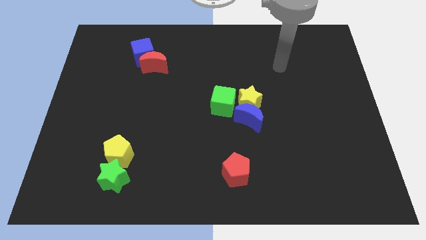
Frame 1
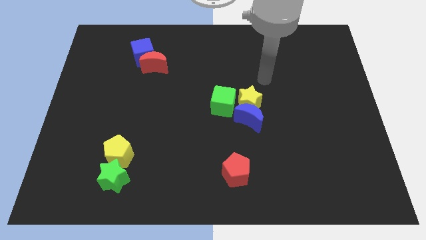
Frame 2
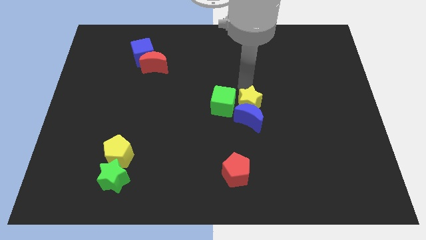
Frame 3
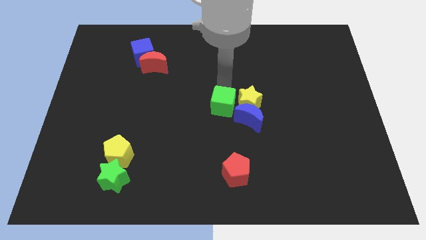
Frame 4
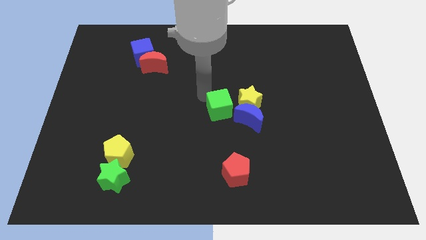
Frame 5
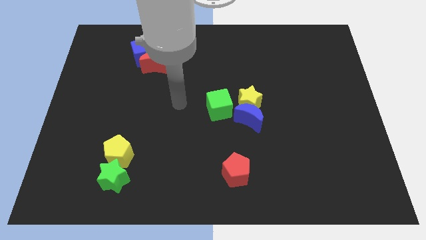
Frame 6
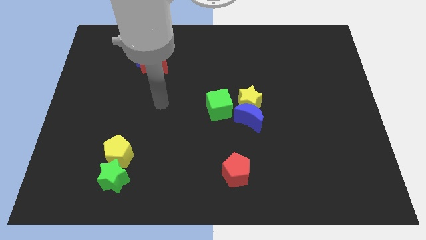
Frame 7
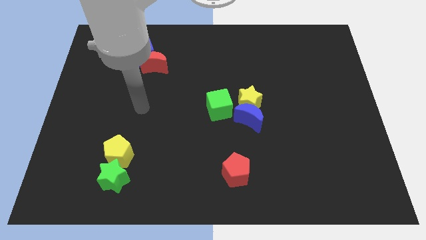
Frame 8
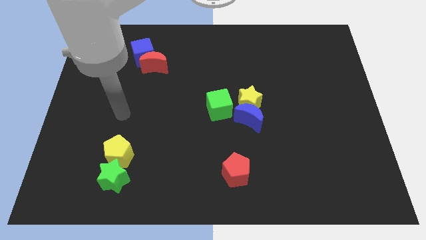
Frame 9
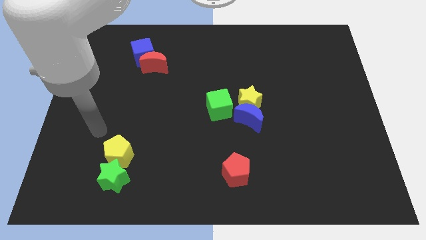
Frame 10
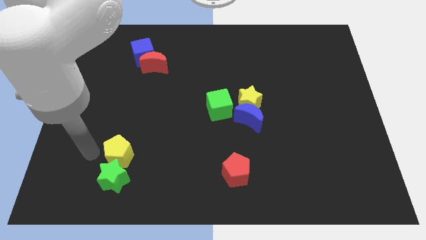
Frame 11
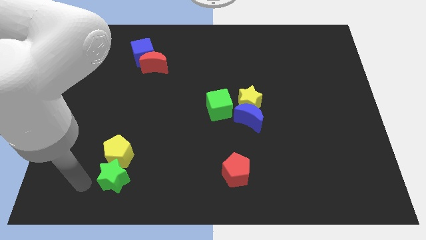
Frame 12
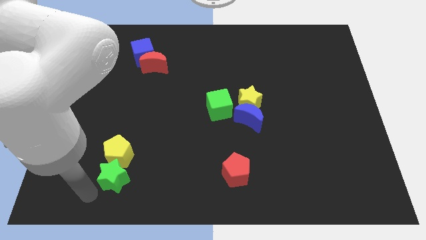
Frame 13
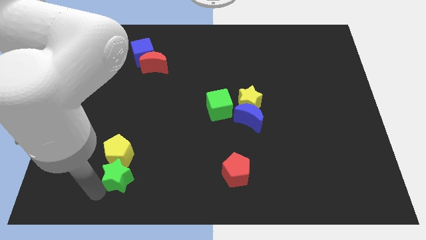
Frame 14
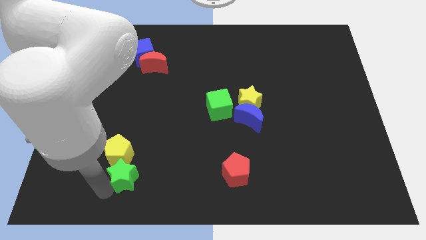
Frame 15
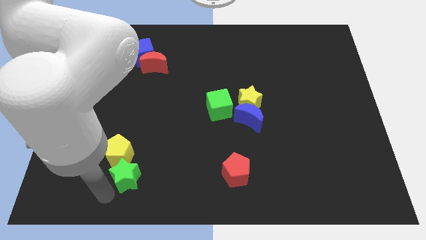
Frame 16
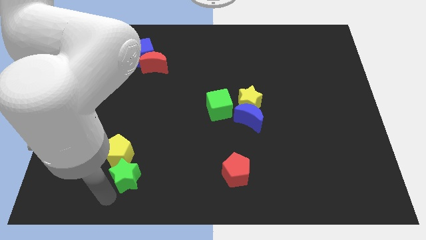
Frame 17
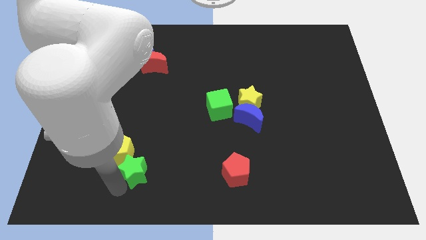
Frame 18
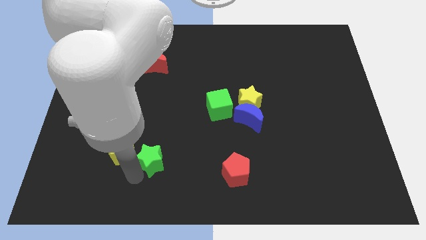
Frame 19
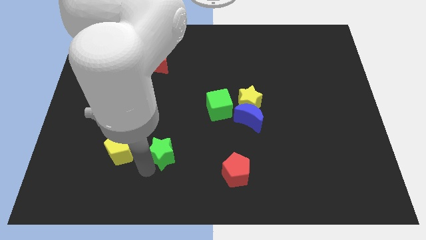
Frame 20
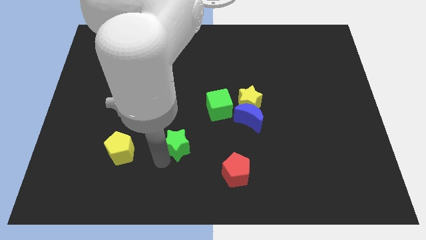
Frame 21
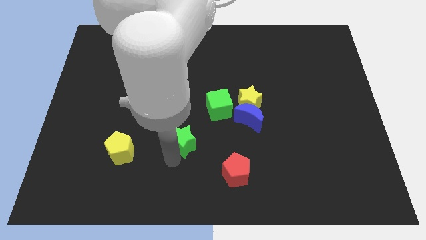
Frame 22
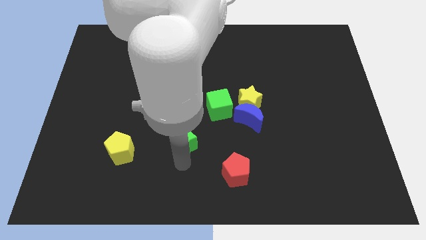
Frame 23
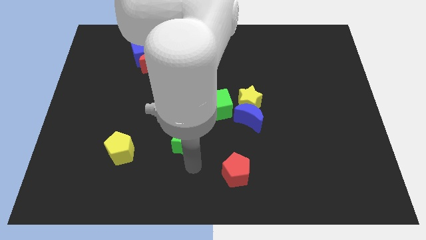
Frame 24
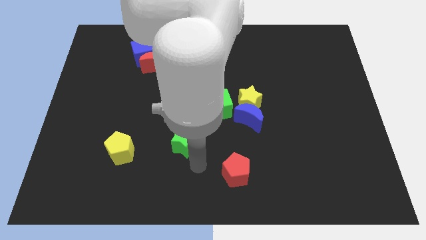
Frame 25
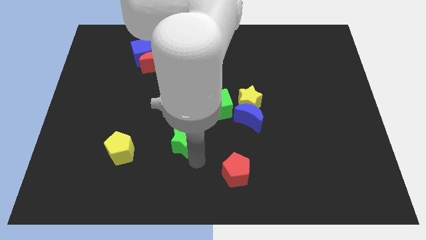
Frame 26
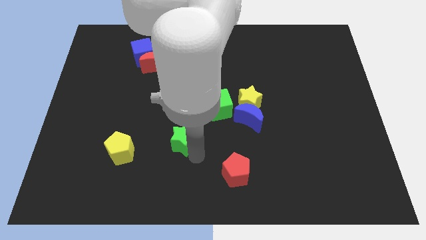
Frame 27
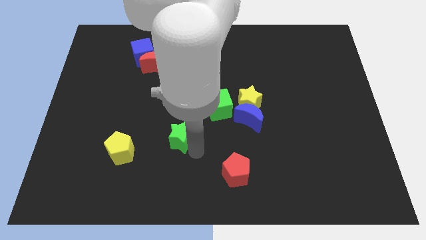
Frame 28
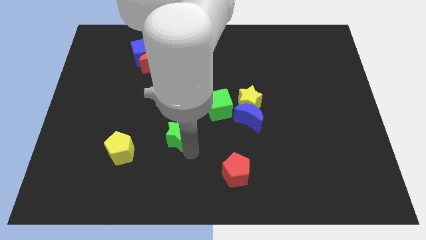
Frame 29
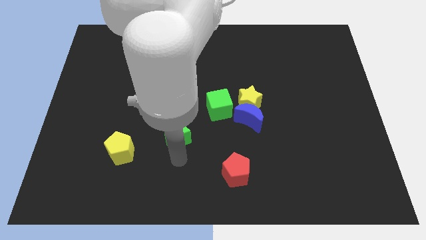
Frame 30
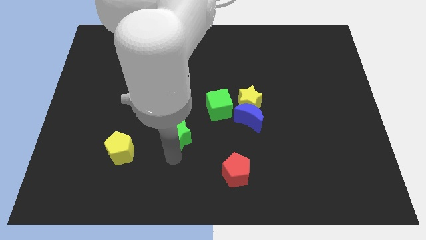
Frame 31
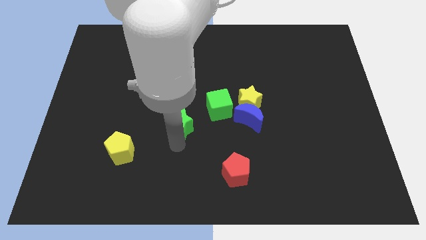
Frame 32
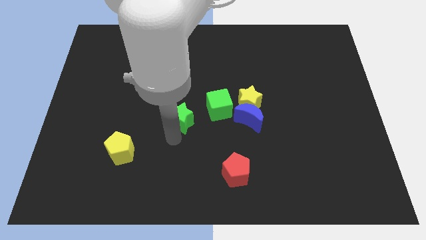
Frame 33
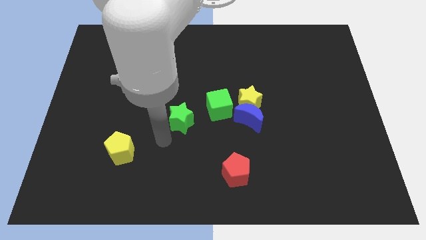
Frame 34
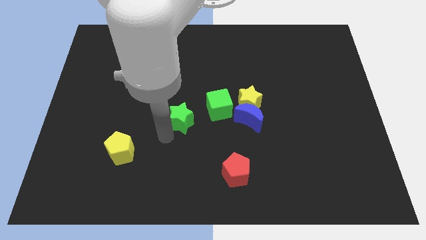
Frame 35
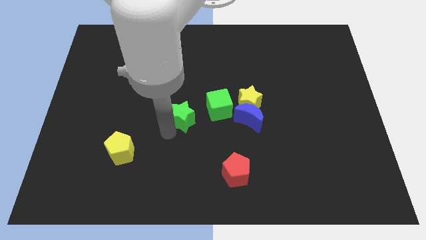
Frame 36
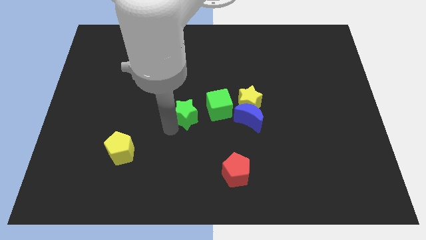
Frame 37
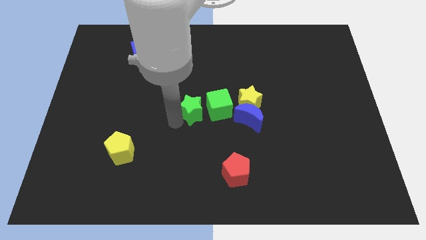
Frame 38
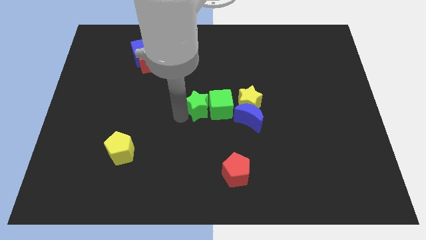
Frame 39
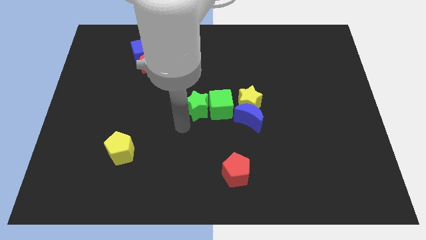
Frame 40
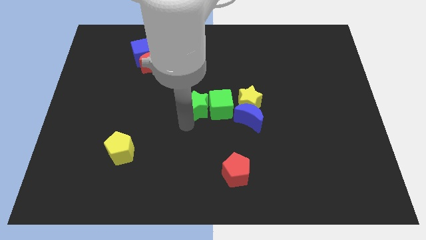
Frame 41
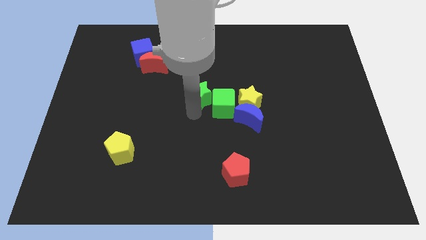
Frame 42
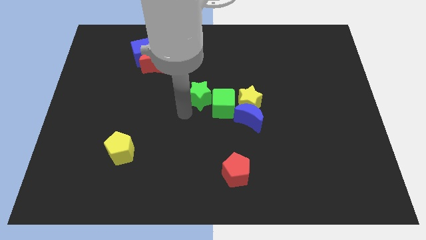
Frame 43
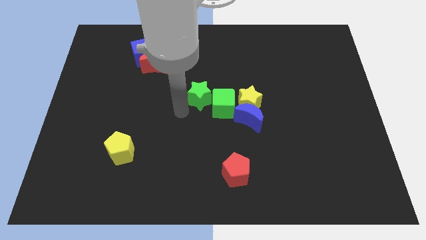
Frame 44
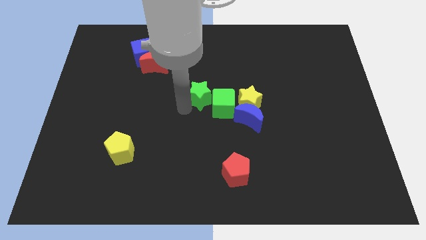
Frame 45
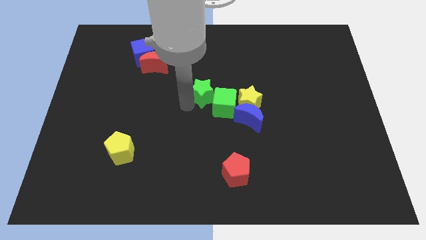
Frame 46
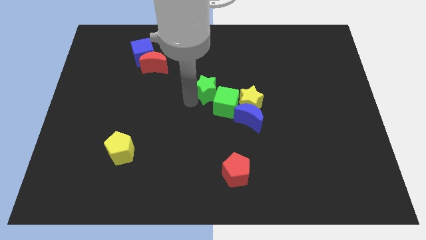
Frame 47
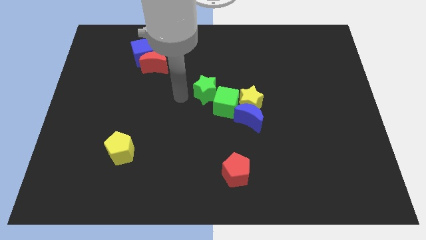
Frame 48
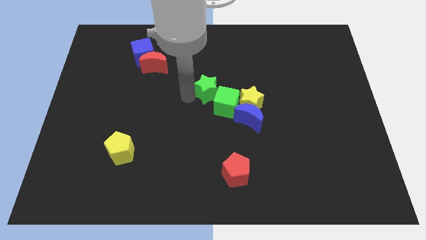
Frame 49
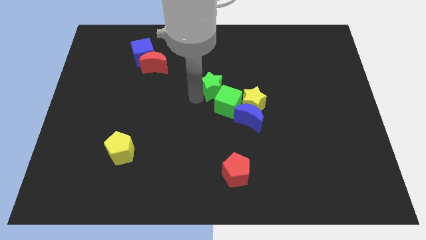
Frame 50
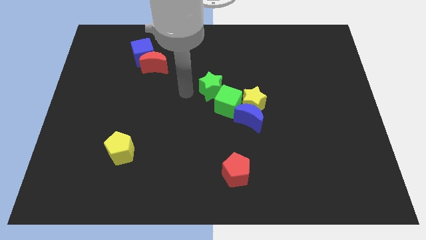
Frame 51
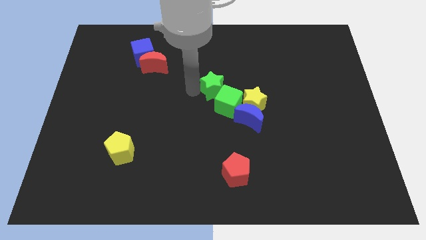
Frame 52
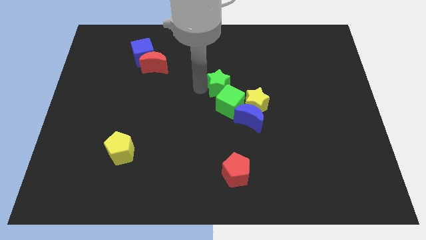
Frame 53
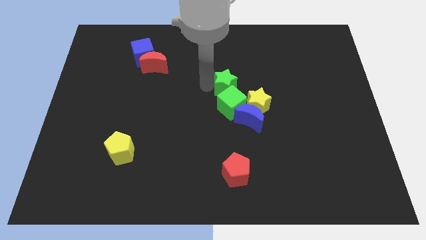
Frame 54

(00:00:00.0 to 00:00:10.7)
put the green star diagonally up and to the right of the green cube

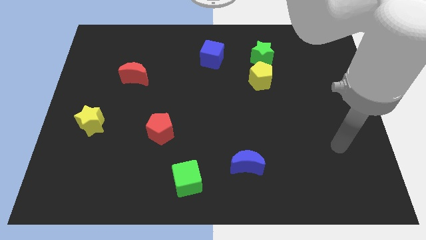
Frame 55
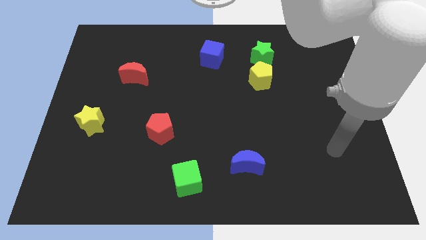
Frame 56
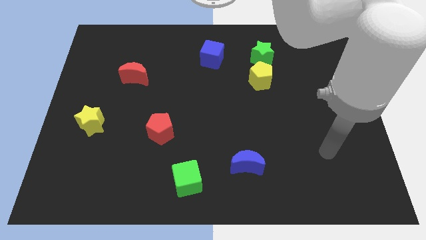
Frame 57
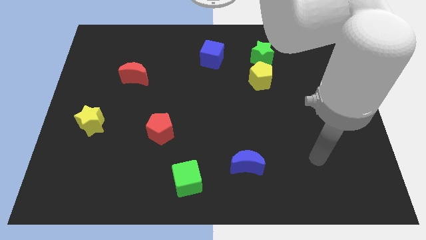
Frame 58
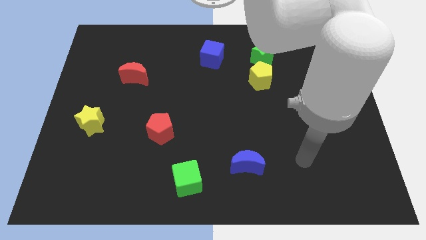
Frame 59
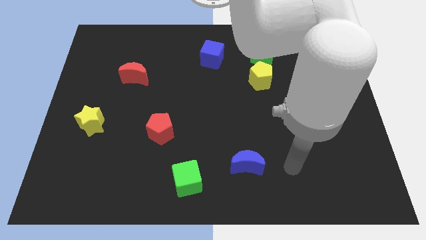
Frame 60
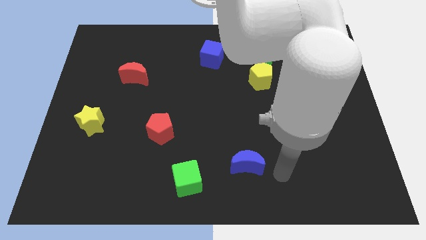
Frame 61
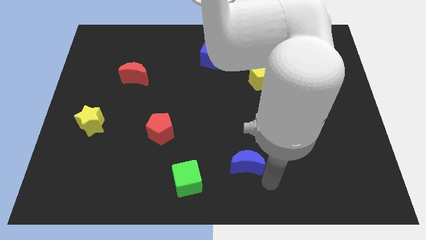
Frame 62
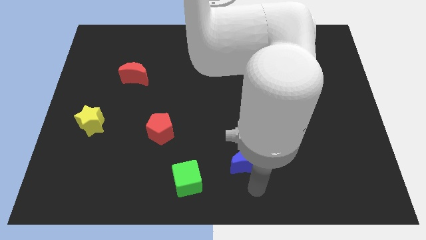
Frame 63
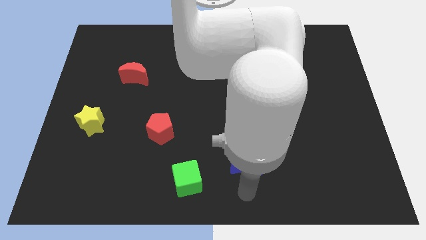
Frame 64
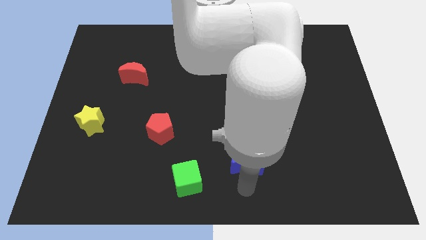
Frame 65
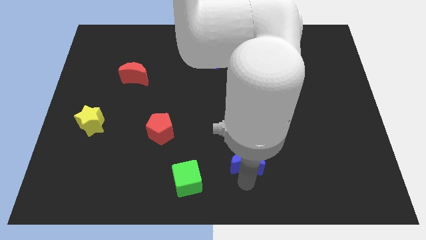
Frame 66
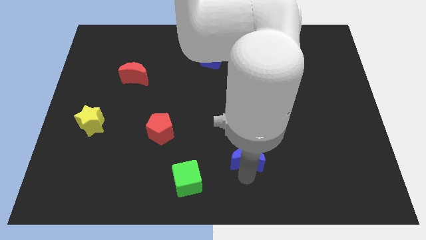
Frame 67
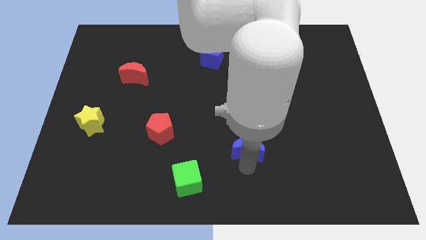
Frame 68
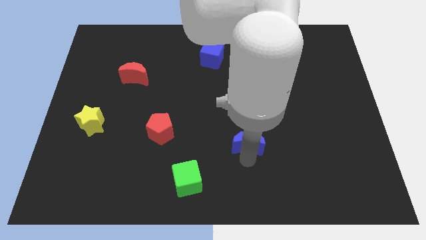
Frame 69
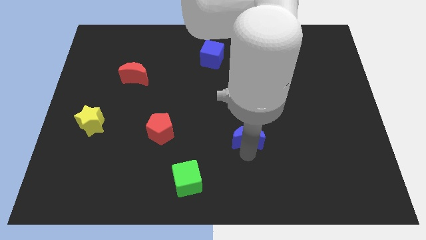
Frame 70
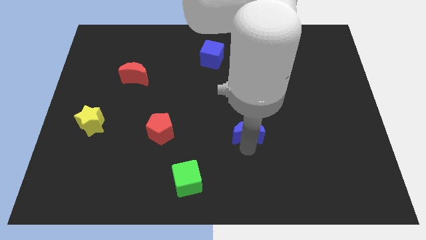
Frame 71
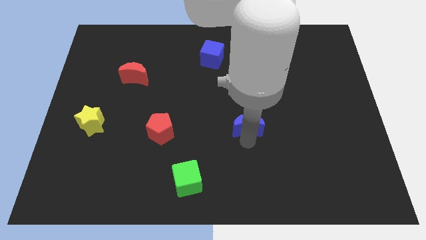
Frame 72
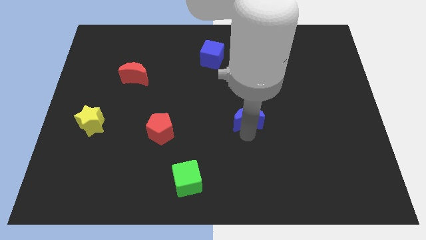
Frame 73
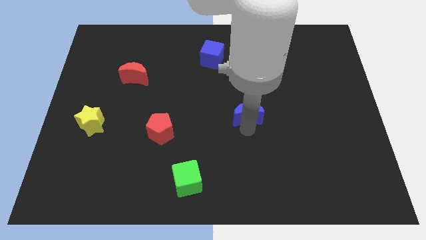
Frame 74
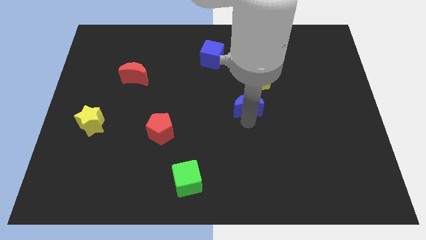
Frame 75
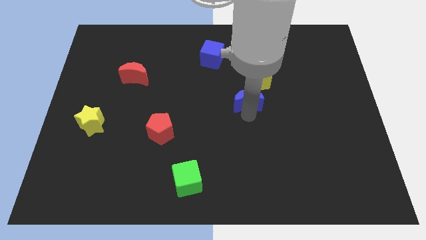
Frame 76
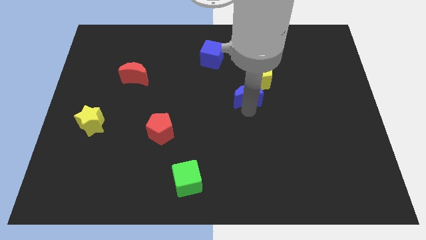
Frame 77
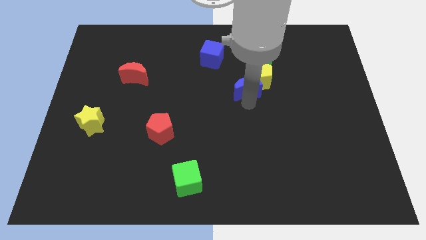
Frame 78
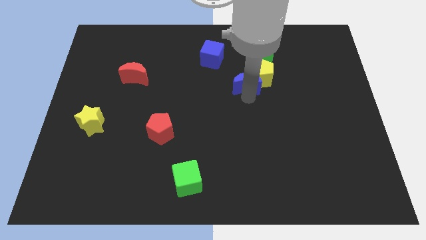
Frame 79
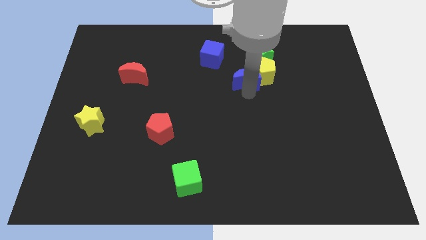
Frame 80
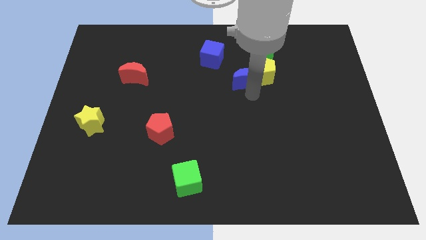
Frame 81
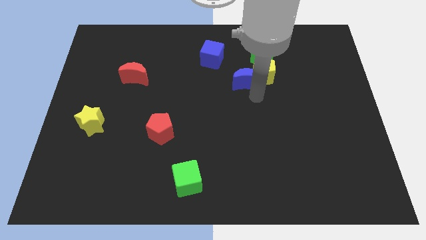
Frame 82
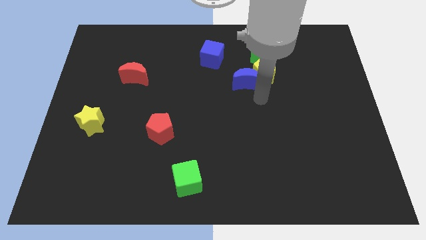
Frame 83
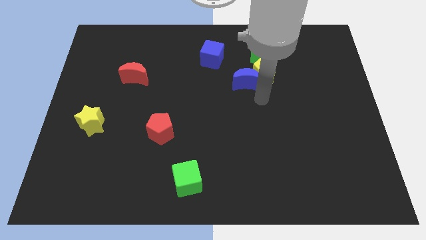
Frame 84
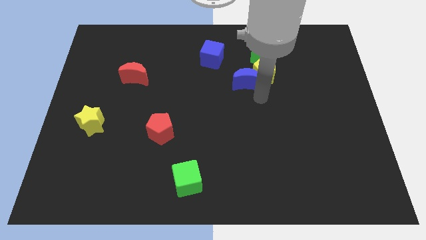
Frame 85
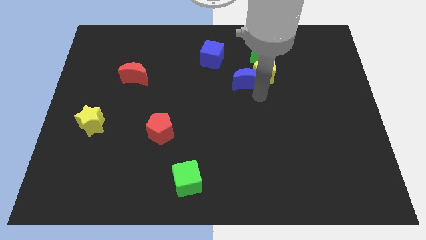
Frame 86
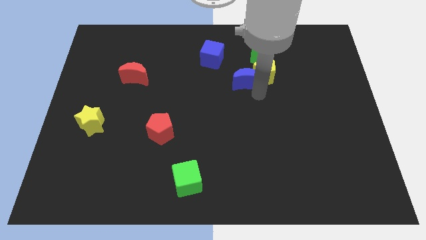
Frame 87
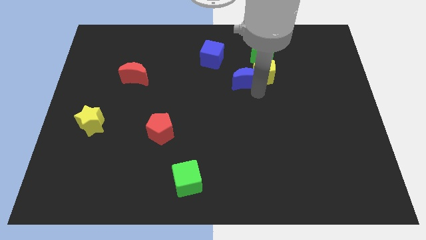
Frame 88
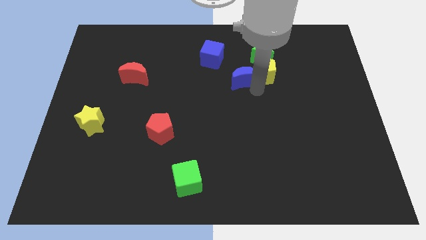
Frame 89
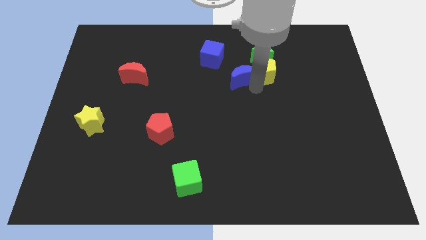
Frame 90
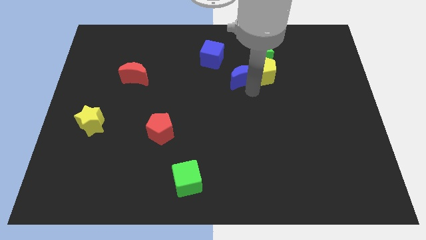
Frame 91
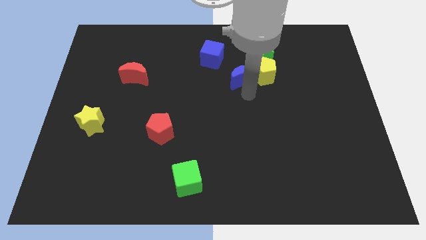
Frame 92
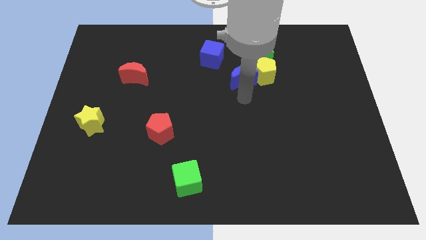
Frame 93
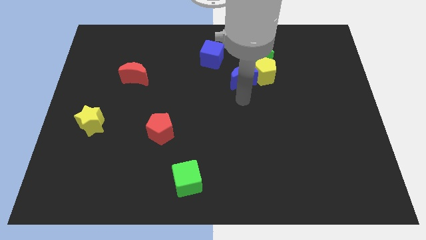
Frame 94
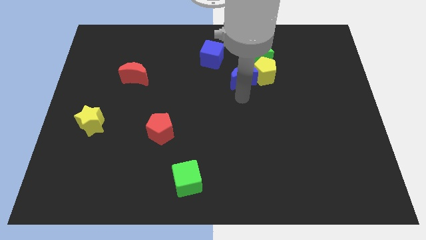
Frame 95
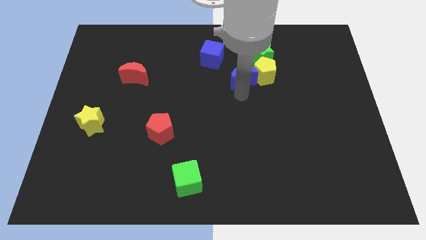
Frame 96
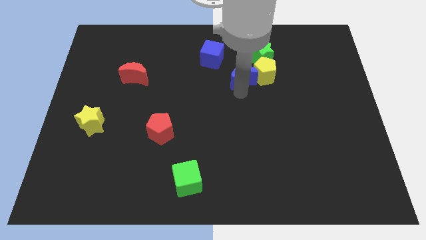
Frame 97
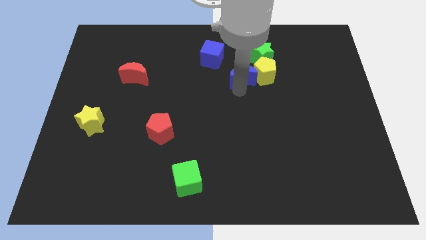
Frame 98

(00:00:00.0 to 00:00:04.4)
push the blue moon to the top left side of the yellow pentagon
